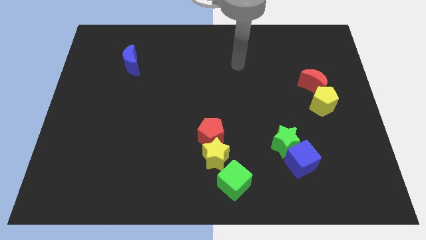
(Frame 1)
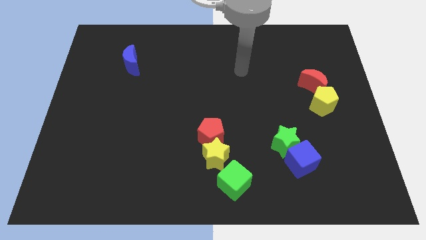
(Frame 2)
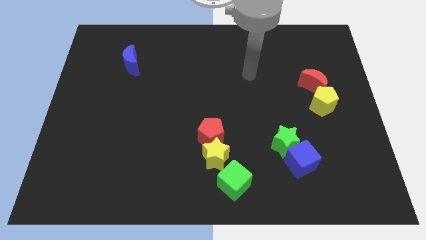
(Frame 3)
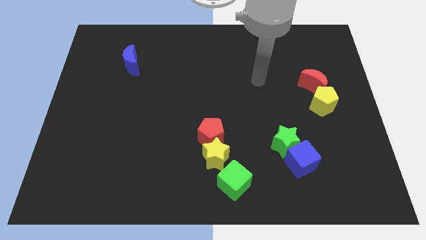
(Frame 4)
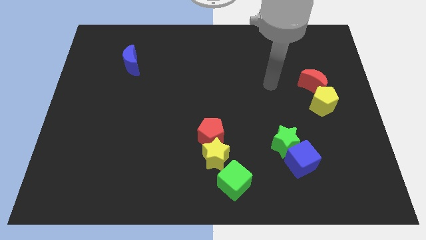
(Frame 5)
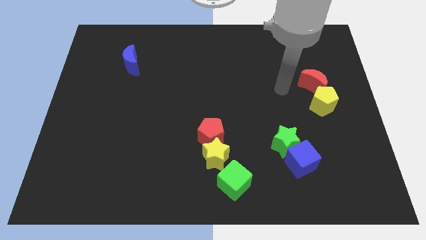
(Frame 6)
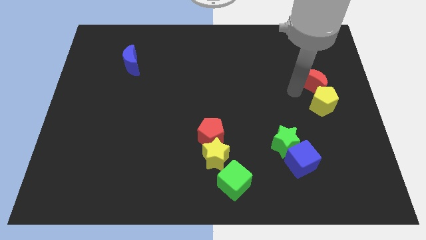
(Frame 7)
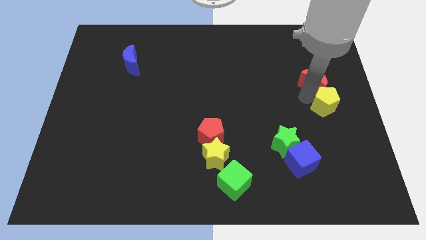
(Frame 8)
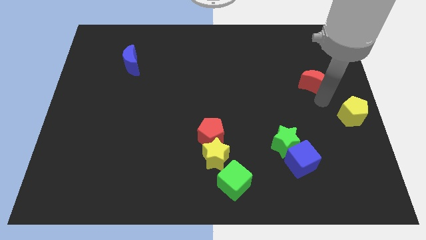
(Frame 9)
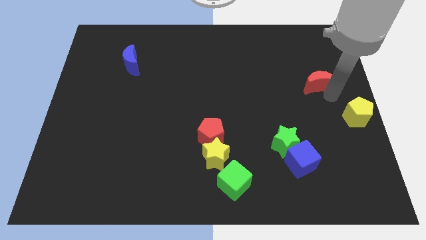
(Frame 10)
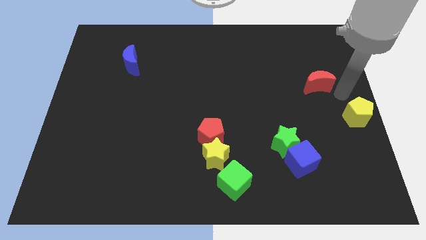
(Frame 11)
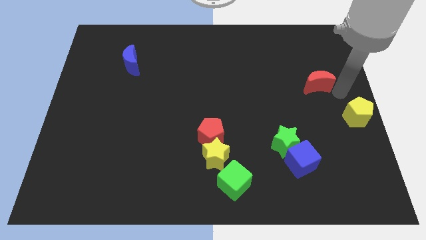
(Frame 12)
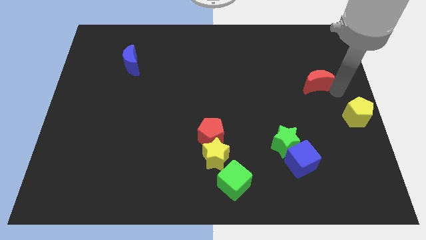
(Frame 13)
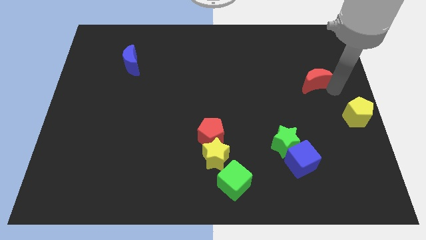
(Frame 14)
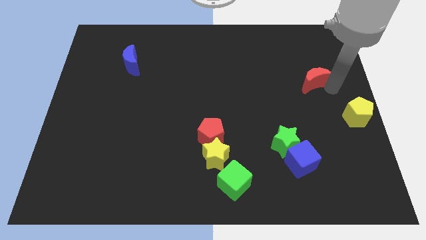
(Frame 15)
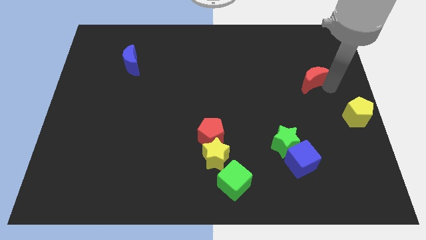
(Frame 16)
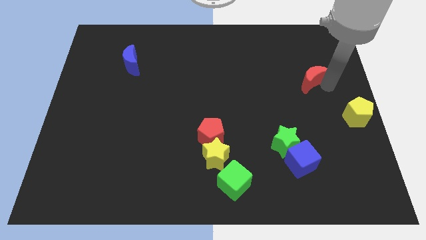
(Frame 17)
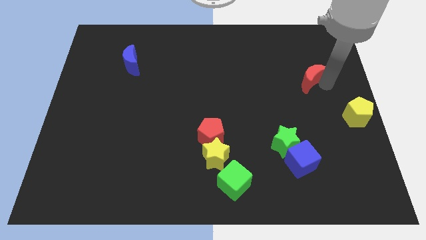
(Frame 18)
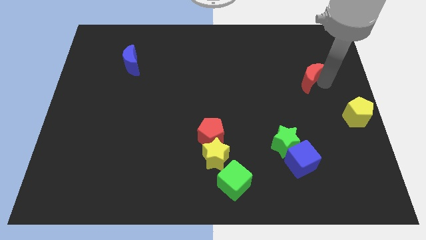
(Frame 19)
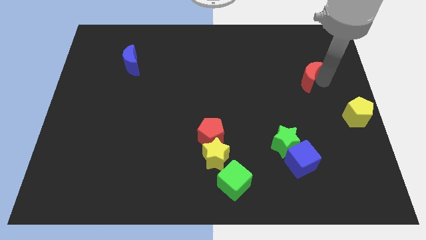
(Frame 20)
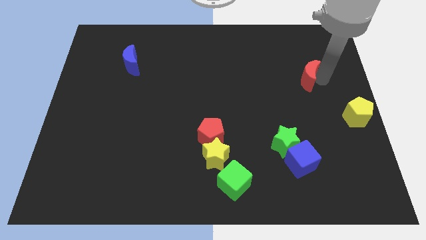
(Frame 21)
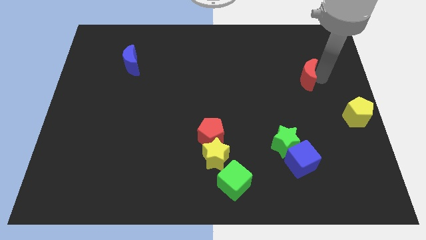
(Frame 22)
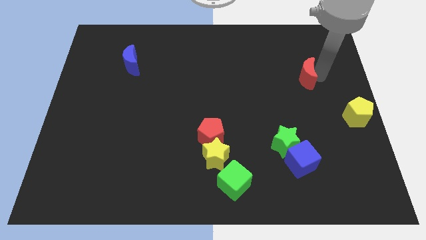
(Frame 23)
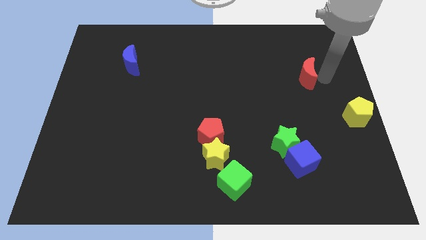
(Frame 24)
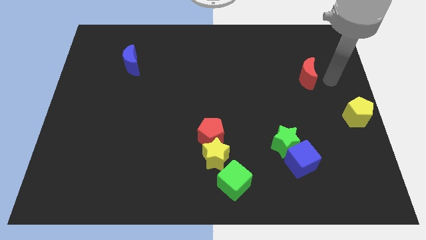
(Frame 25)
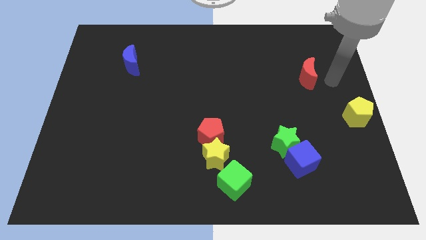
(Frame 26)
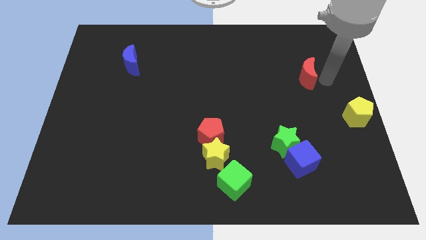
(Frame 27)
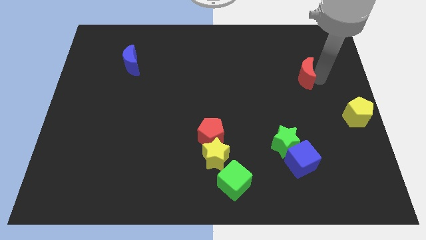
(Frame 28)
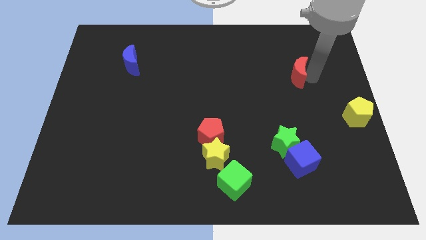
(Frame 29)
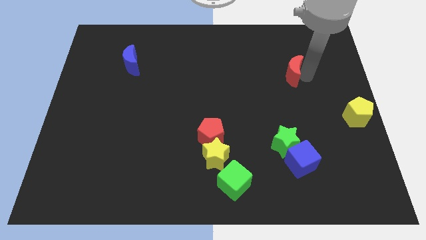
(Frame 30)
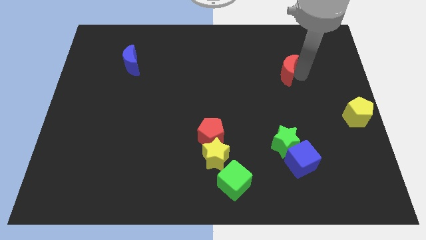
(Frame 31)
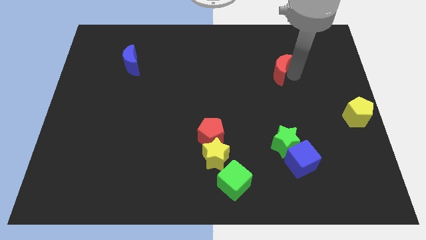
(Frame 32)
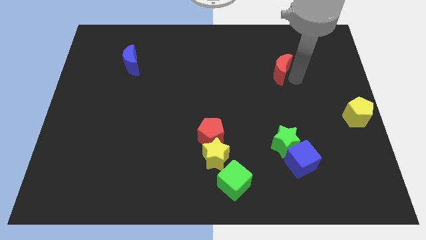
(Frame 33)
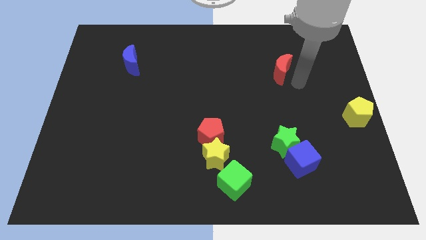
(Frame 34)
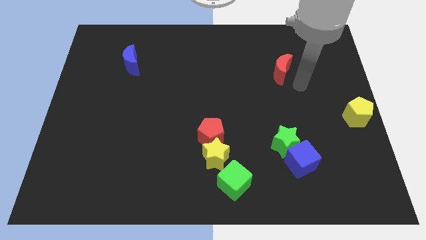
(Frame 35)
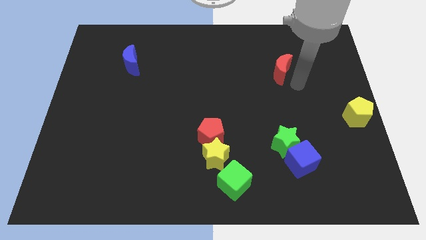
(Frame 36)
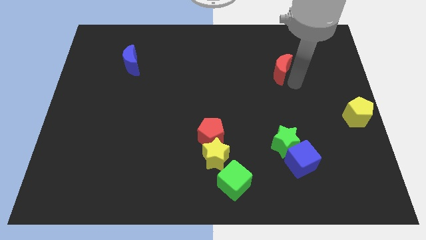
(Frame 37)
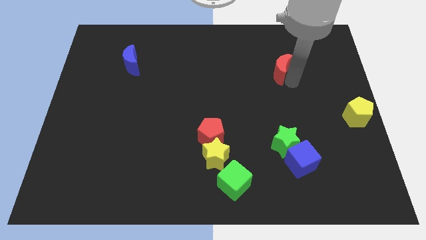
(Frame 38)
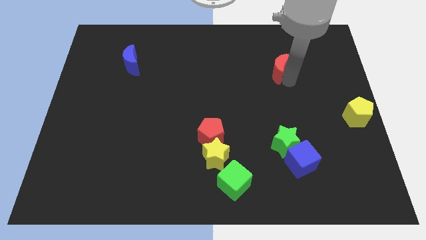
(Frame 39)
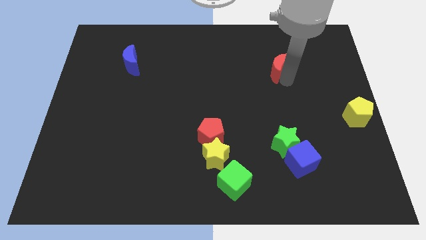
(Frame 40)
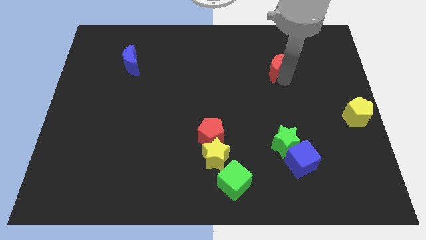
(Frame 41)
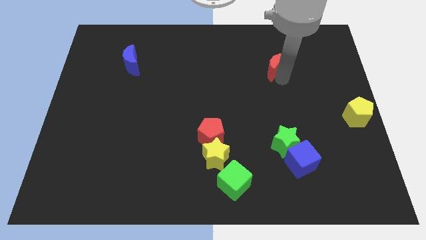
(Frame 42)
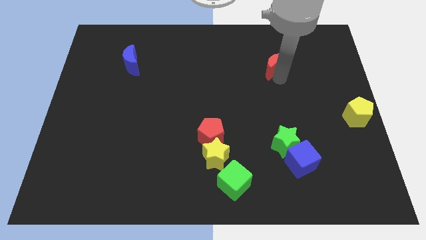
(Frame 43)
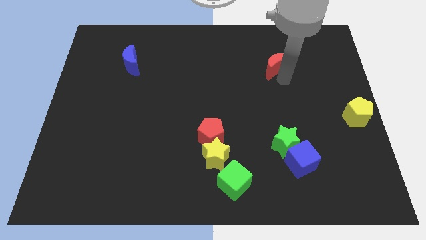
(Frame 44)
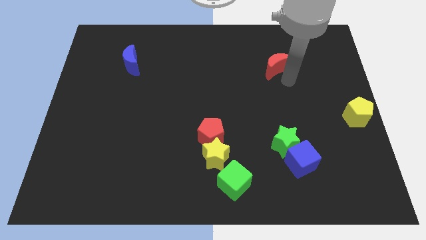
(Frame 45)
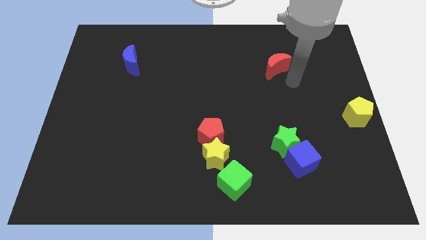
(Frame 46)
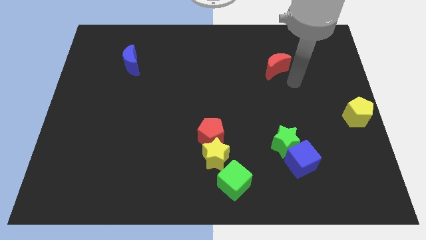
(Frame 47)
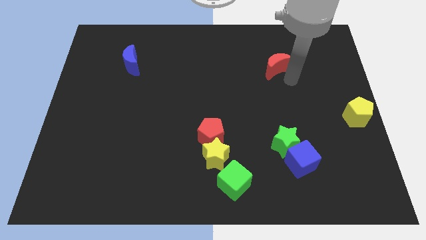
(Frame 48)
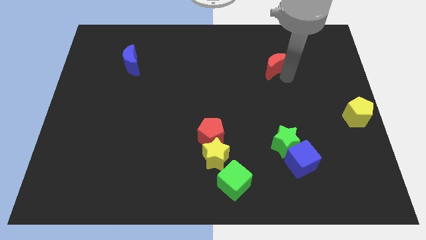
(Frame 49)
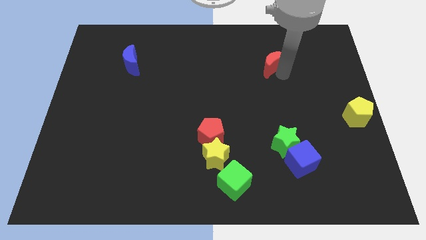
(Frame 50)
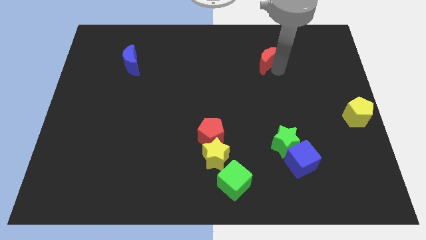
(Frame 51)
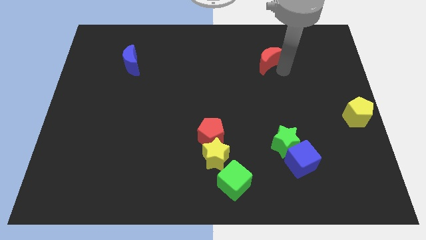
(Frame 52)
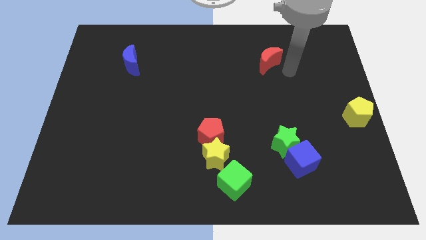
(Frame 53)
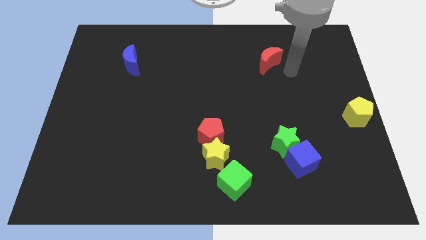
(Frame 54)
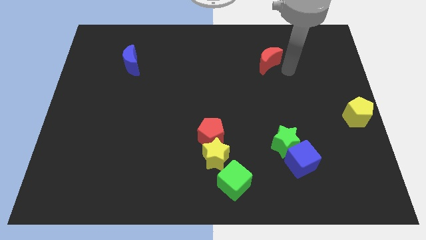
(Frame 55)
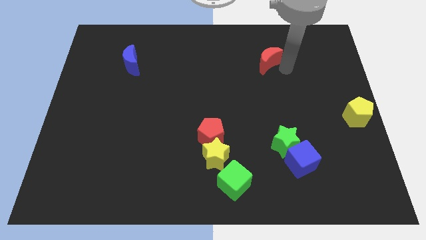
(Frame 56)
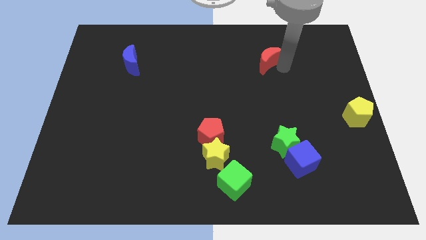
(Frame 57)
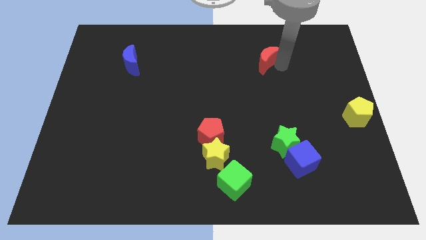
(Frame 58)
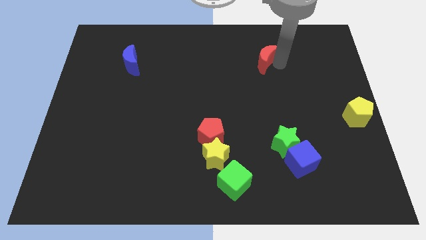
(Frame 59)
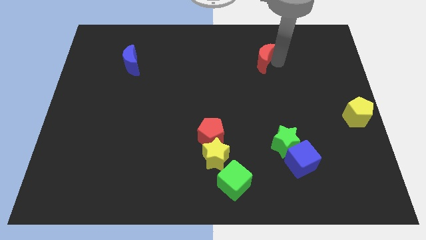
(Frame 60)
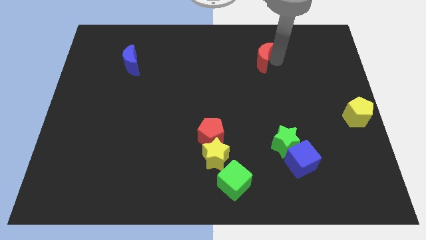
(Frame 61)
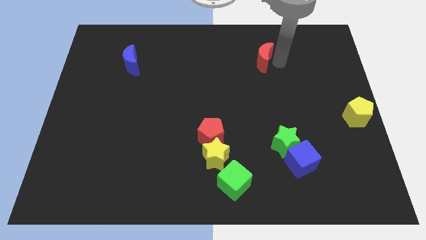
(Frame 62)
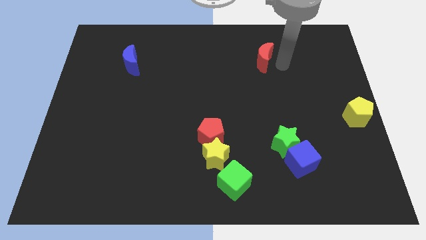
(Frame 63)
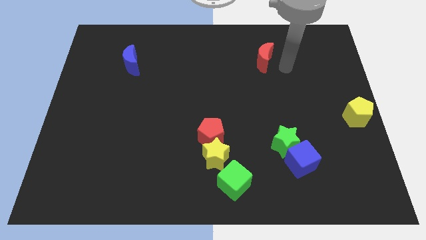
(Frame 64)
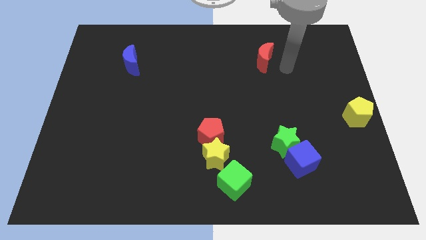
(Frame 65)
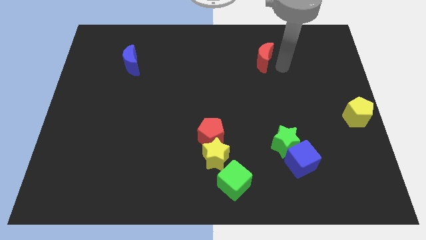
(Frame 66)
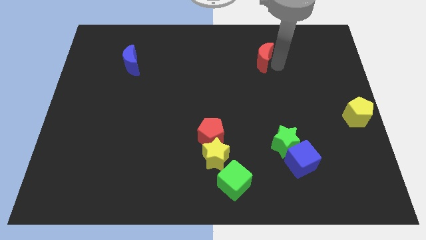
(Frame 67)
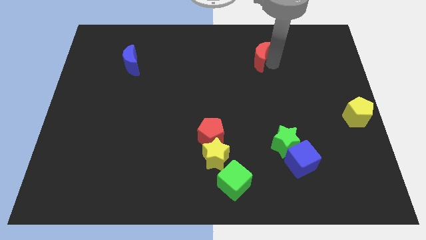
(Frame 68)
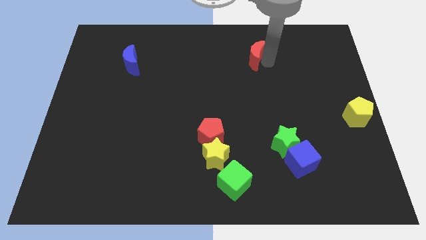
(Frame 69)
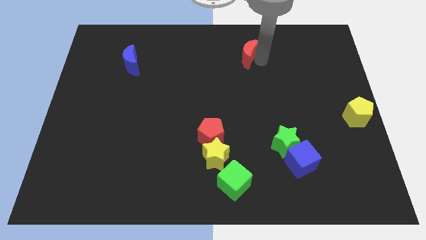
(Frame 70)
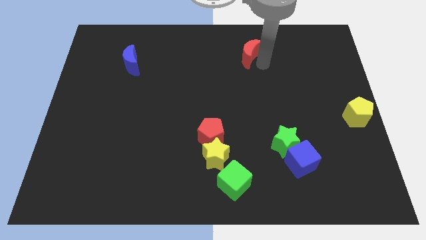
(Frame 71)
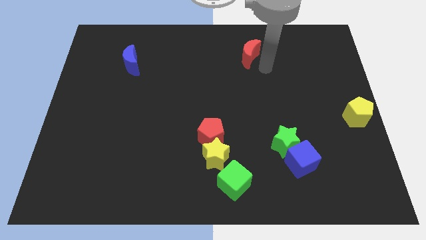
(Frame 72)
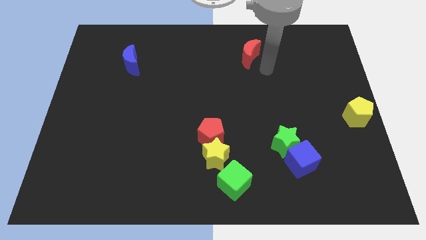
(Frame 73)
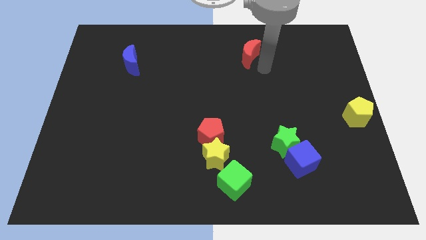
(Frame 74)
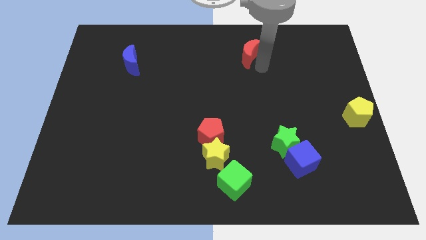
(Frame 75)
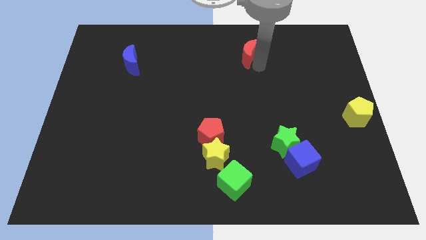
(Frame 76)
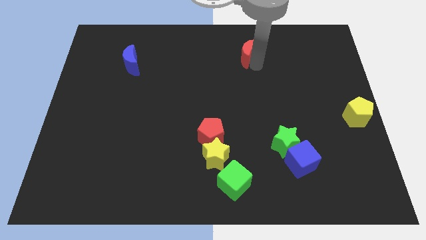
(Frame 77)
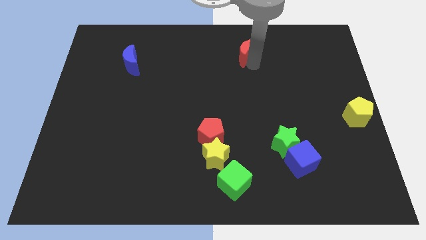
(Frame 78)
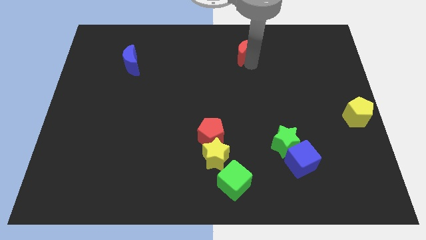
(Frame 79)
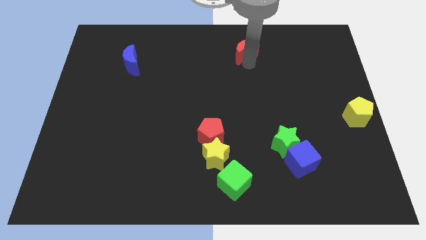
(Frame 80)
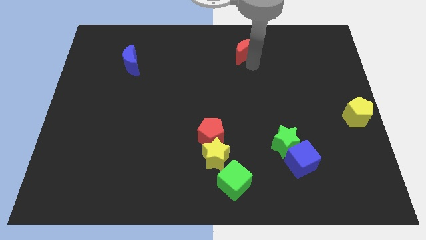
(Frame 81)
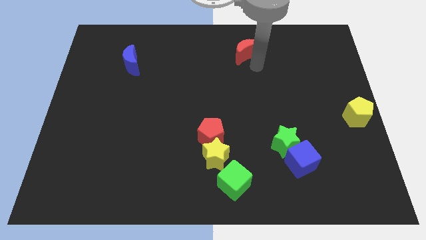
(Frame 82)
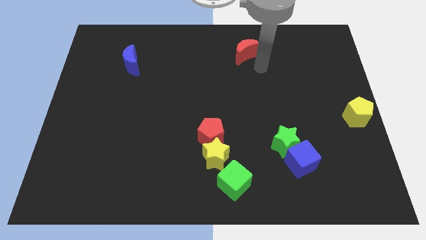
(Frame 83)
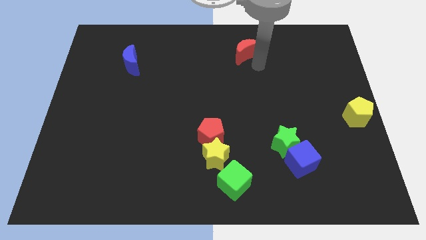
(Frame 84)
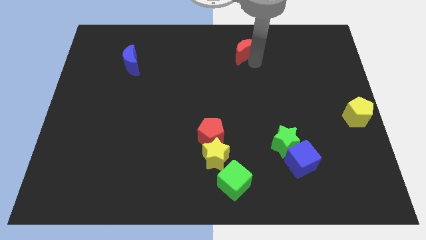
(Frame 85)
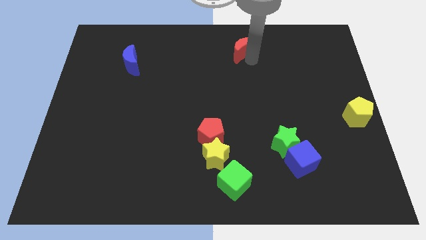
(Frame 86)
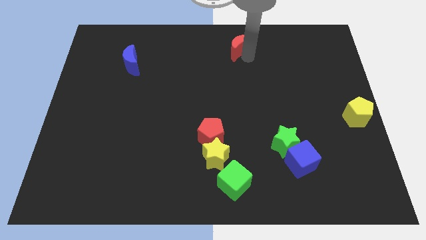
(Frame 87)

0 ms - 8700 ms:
put the red moon to the towards your base
